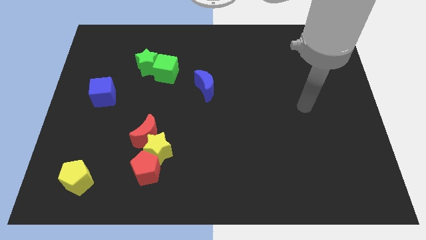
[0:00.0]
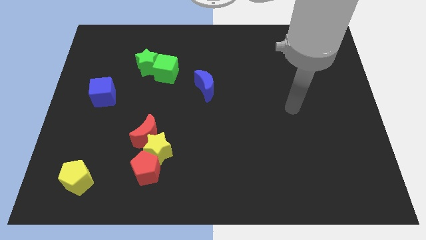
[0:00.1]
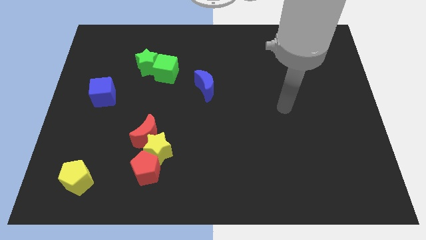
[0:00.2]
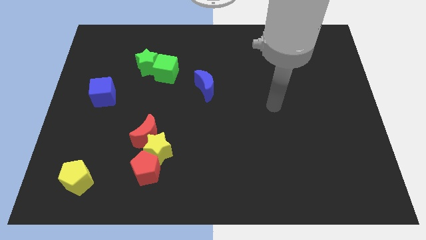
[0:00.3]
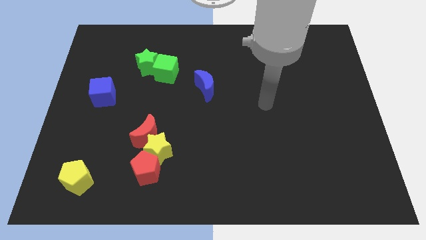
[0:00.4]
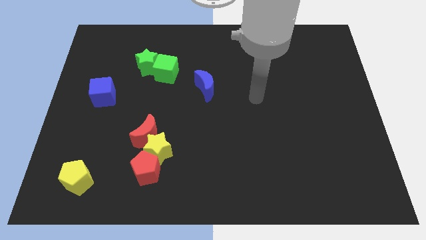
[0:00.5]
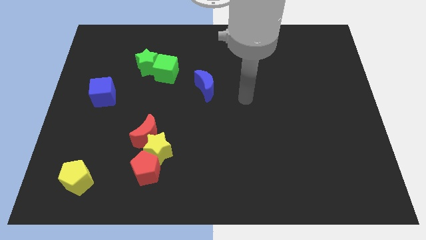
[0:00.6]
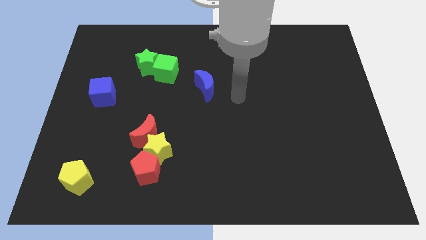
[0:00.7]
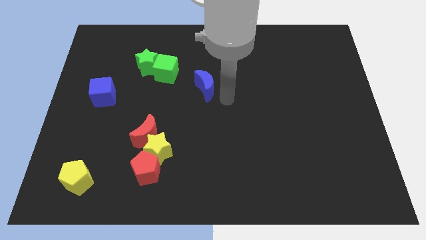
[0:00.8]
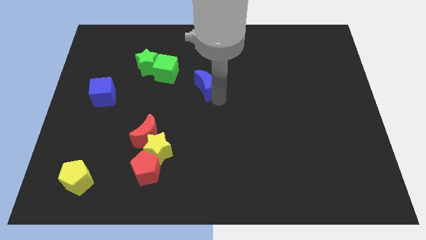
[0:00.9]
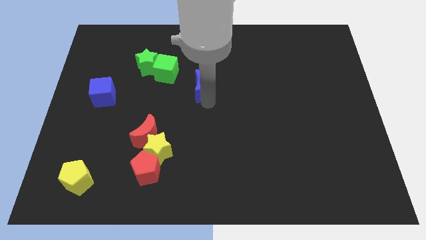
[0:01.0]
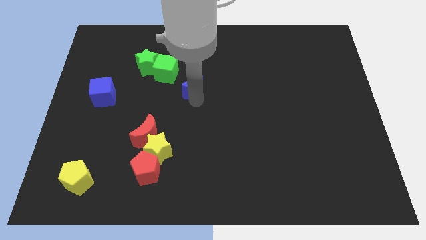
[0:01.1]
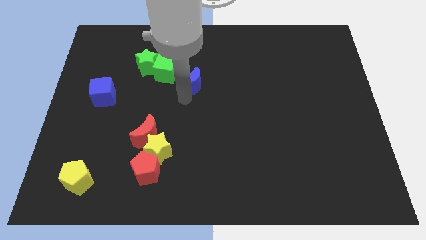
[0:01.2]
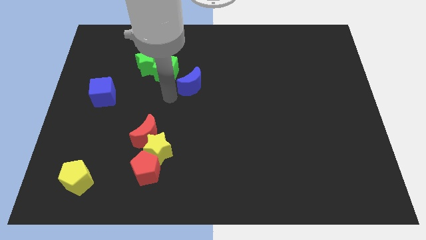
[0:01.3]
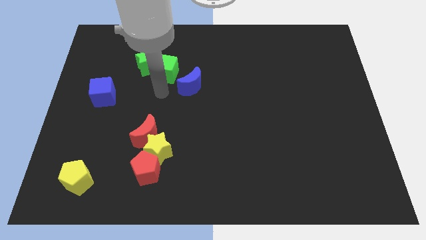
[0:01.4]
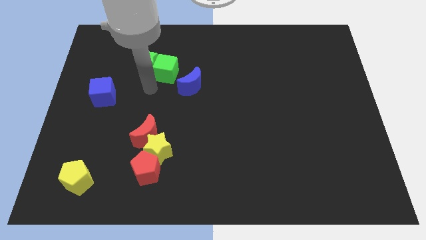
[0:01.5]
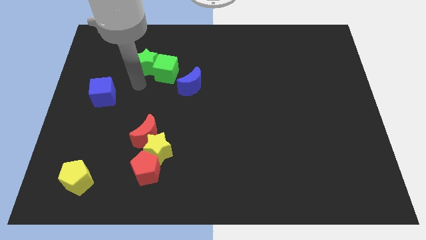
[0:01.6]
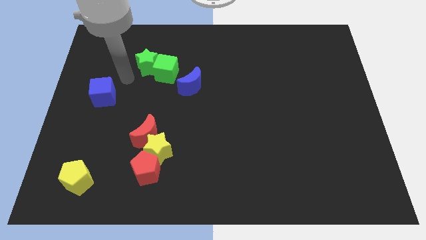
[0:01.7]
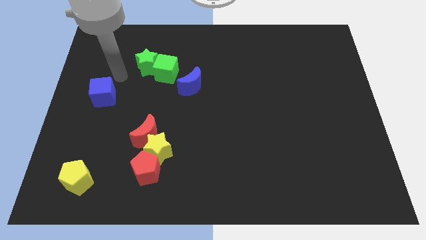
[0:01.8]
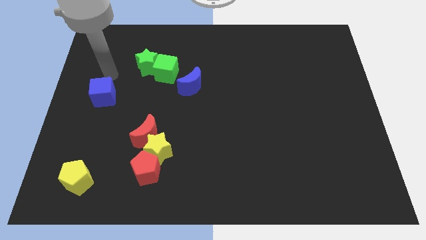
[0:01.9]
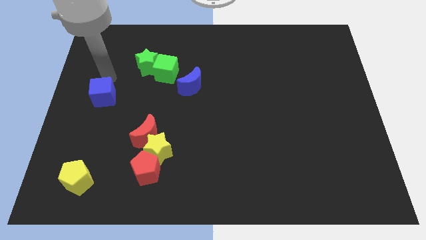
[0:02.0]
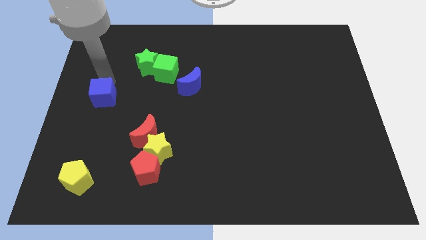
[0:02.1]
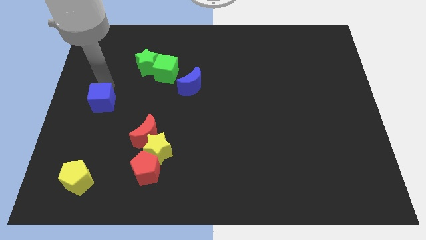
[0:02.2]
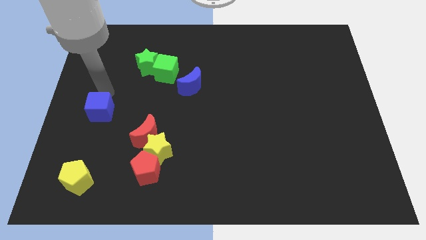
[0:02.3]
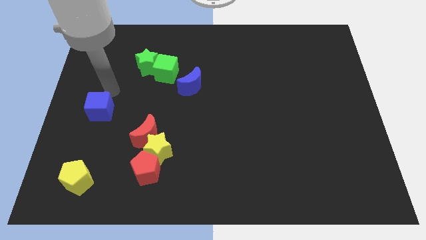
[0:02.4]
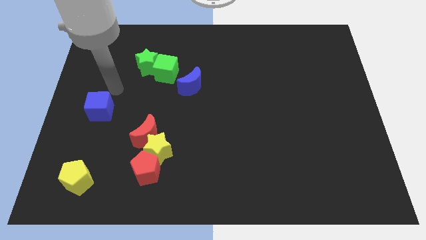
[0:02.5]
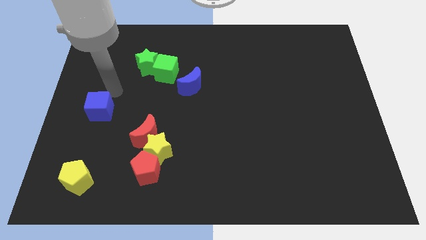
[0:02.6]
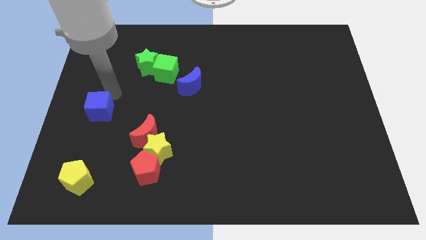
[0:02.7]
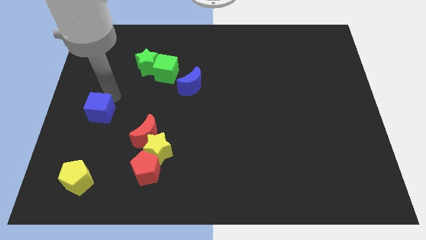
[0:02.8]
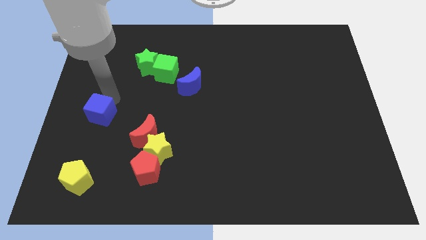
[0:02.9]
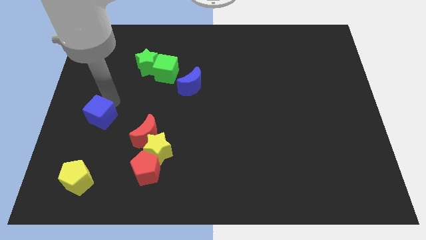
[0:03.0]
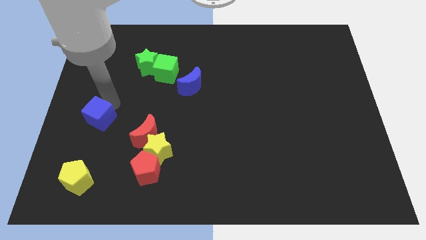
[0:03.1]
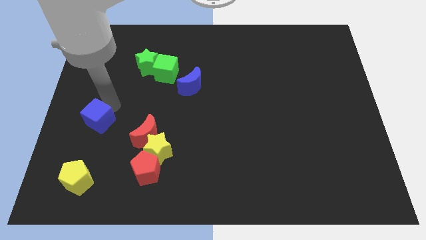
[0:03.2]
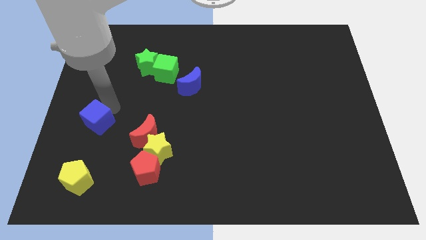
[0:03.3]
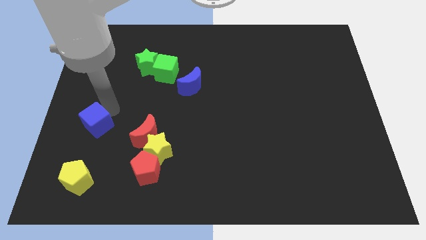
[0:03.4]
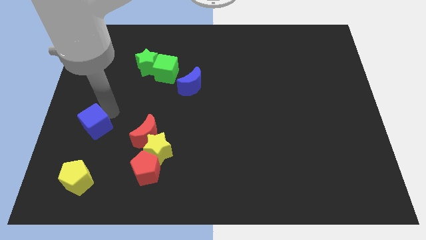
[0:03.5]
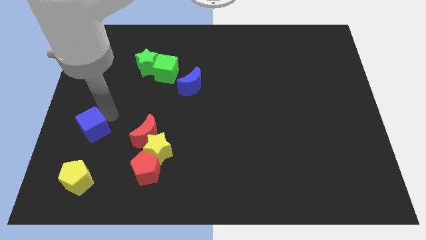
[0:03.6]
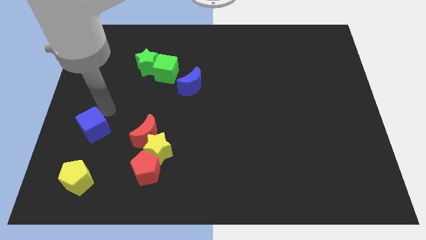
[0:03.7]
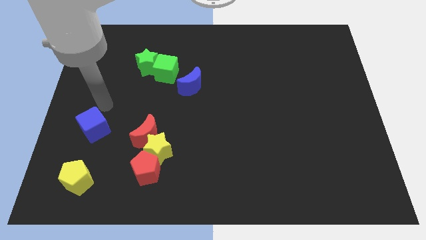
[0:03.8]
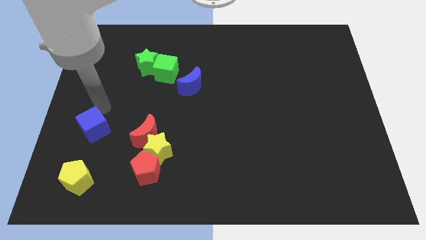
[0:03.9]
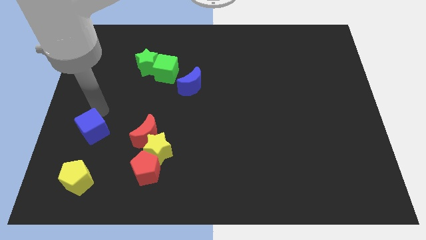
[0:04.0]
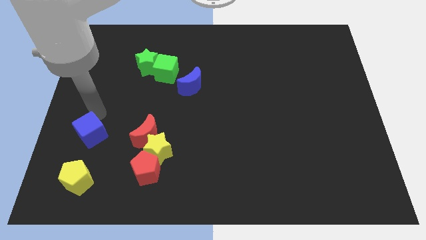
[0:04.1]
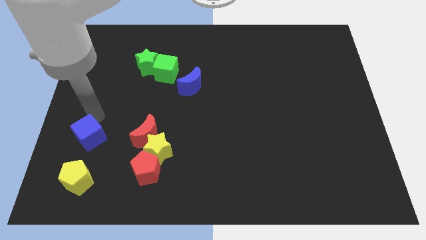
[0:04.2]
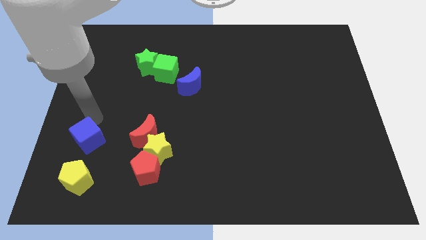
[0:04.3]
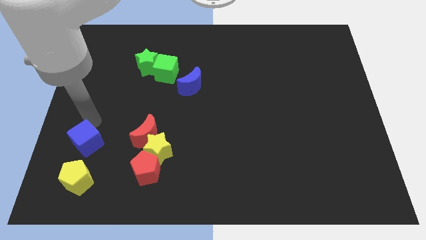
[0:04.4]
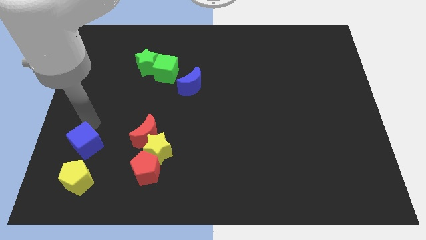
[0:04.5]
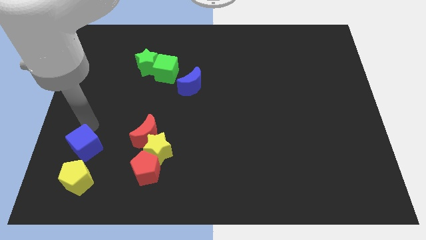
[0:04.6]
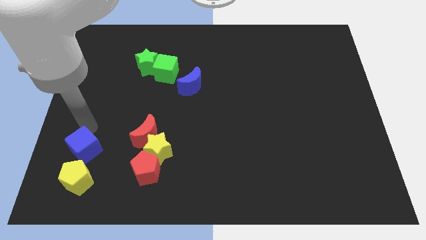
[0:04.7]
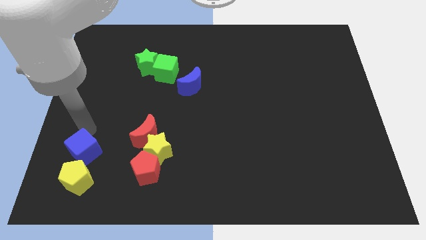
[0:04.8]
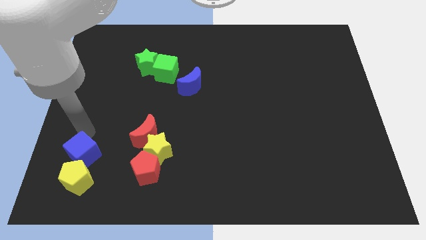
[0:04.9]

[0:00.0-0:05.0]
move the blue cube close to the yellow pentagon

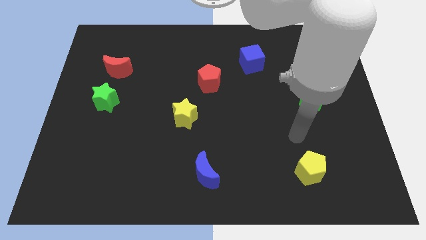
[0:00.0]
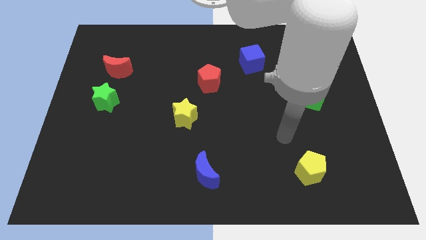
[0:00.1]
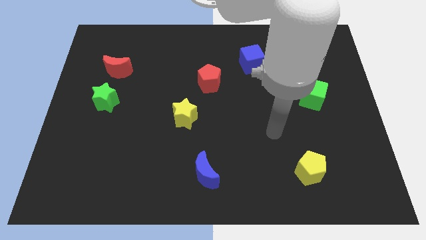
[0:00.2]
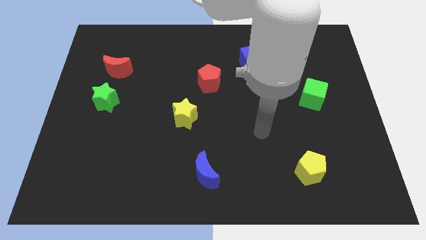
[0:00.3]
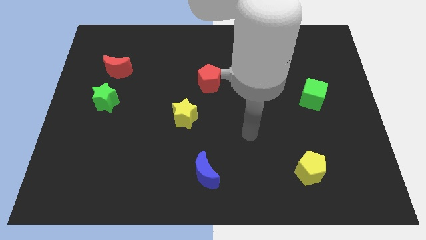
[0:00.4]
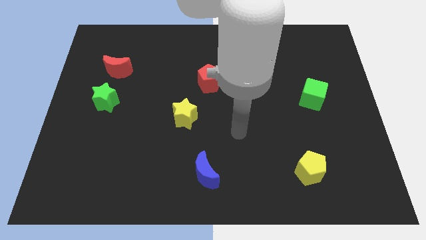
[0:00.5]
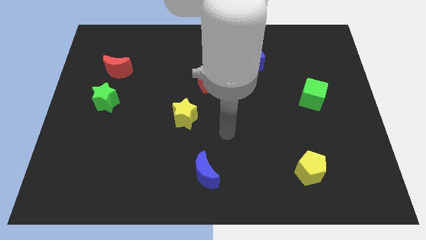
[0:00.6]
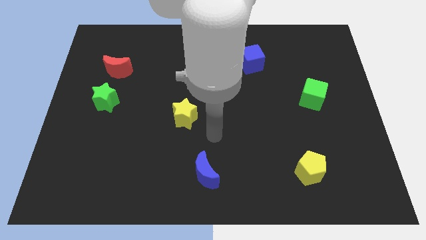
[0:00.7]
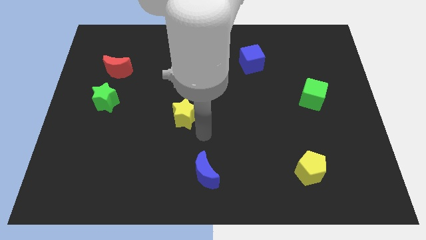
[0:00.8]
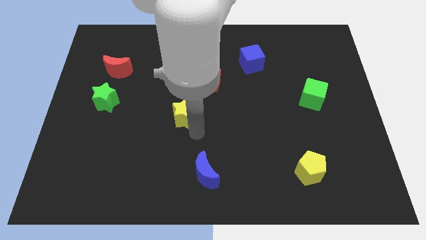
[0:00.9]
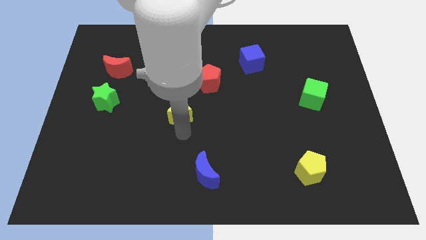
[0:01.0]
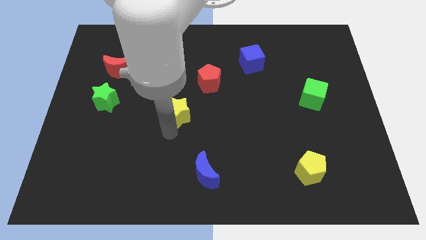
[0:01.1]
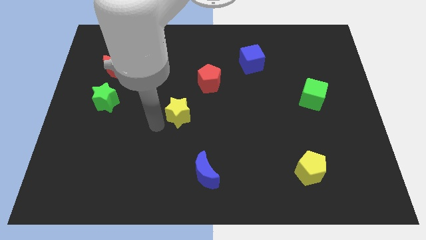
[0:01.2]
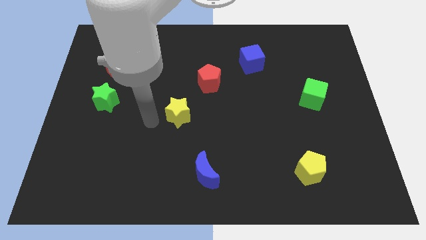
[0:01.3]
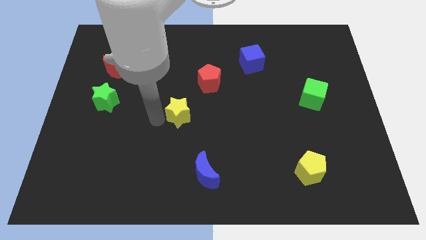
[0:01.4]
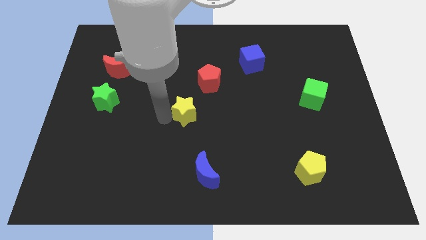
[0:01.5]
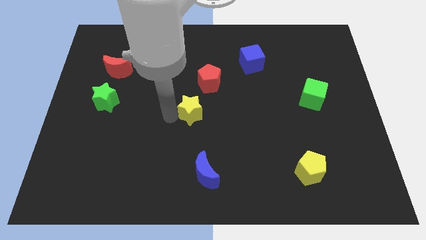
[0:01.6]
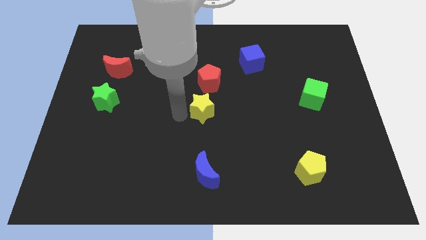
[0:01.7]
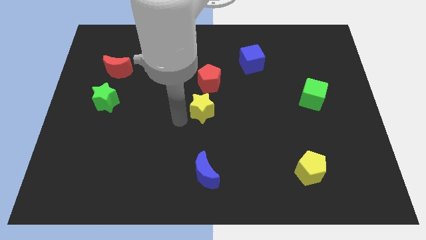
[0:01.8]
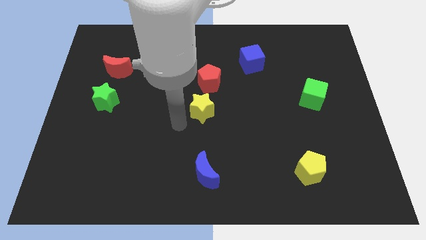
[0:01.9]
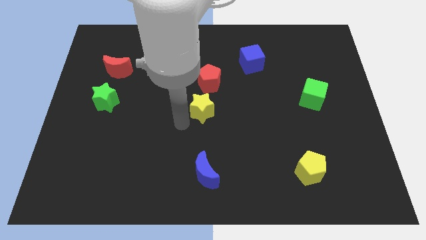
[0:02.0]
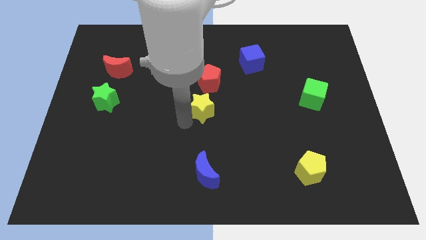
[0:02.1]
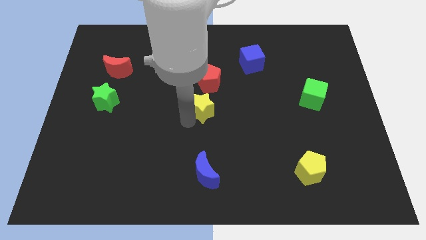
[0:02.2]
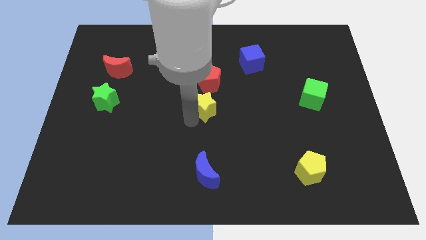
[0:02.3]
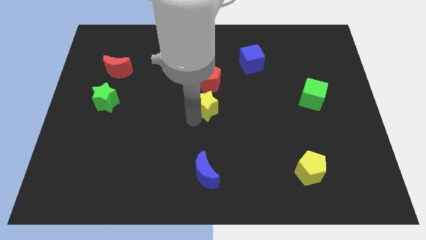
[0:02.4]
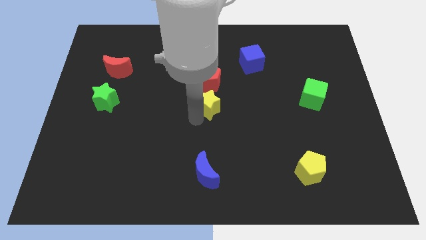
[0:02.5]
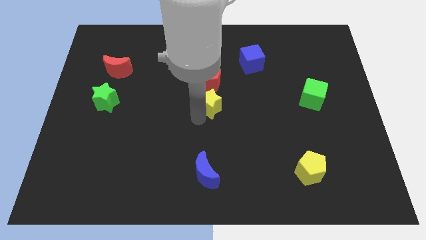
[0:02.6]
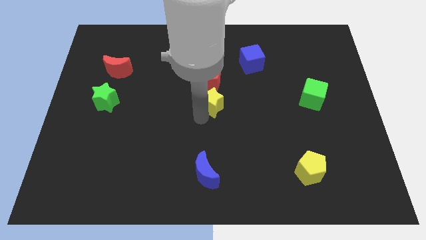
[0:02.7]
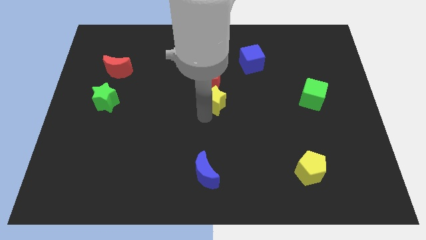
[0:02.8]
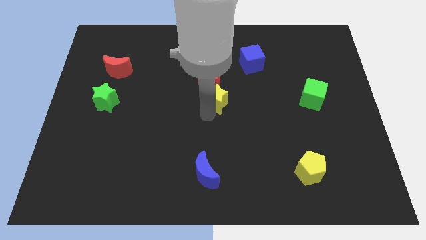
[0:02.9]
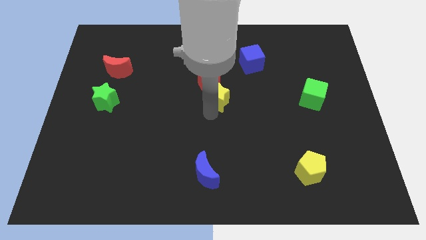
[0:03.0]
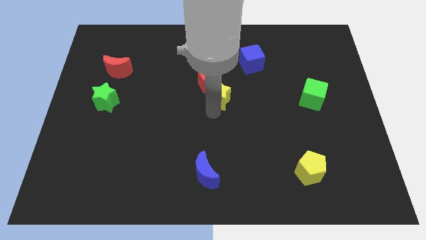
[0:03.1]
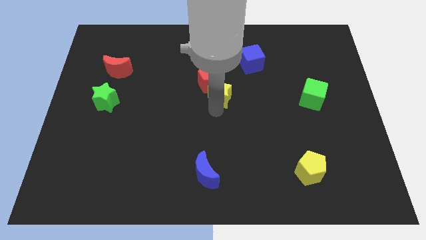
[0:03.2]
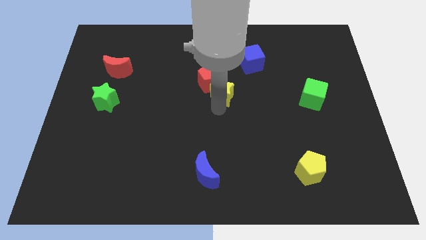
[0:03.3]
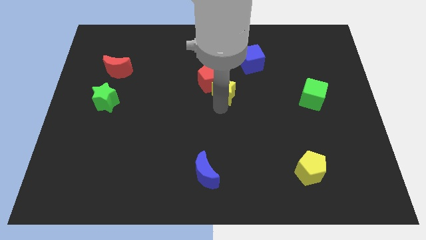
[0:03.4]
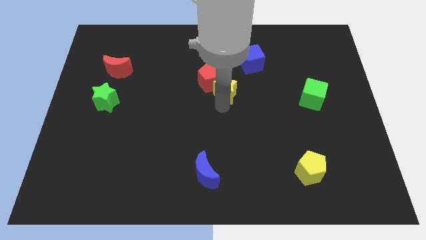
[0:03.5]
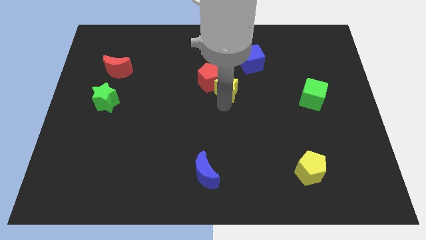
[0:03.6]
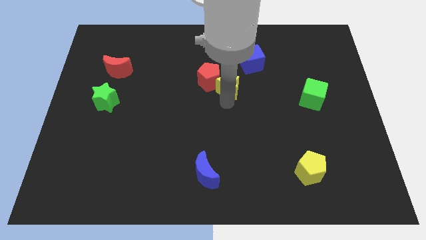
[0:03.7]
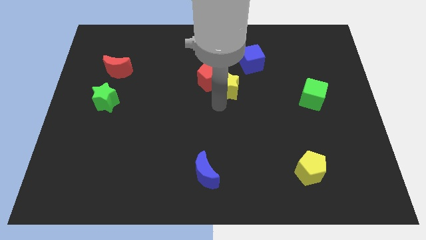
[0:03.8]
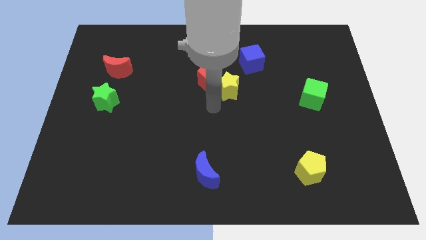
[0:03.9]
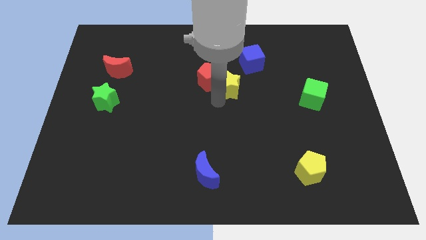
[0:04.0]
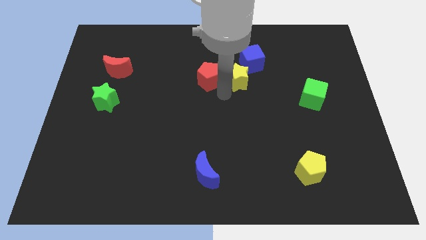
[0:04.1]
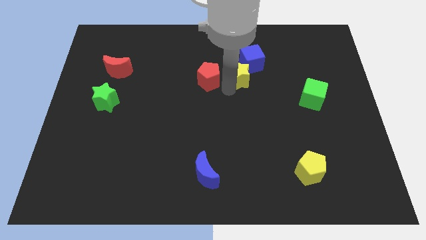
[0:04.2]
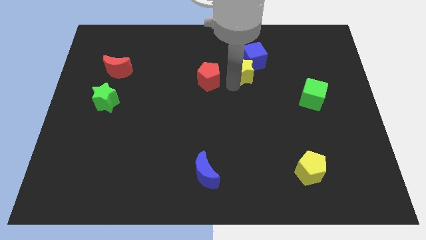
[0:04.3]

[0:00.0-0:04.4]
put the yellow star towards the blue cube
